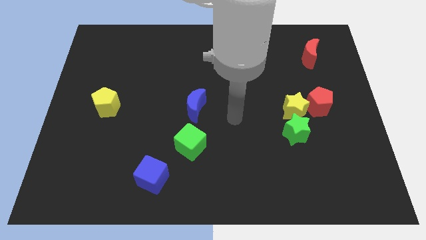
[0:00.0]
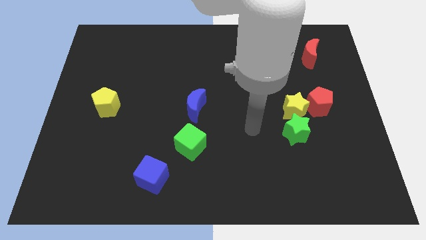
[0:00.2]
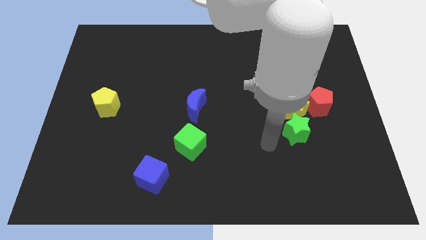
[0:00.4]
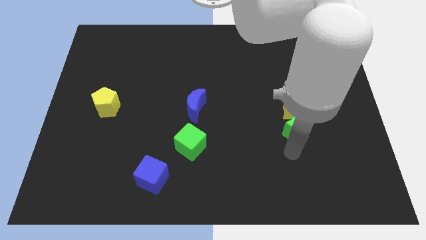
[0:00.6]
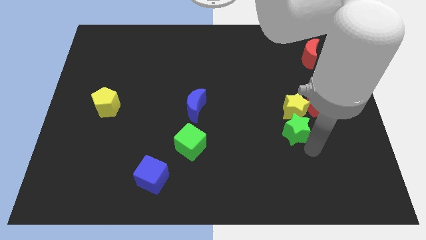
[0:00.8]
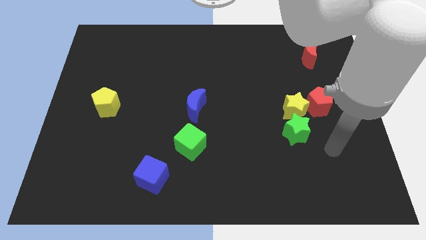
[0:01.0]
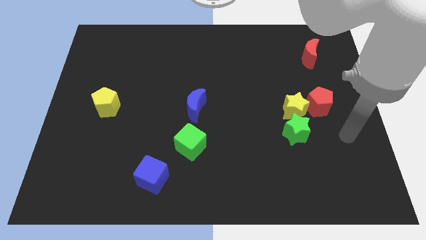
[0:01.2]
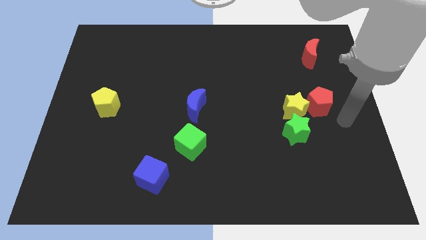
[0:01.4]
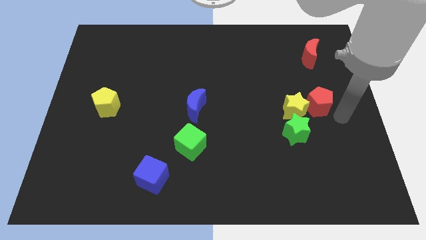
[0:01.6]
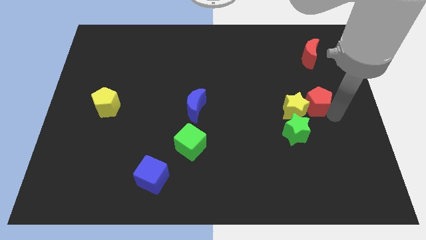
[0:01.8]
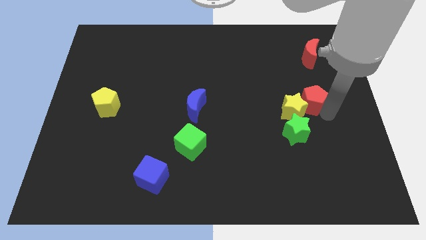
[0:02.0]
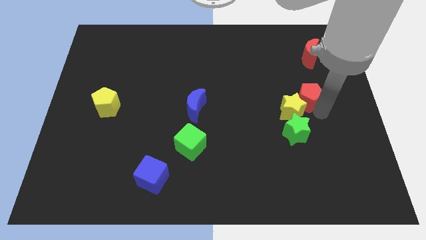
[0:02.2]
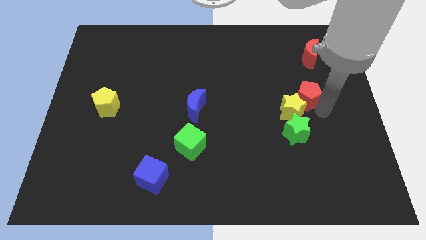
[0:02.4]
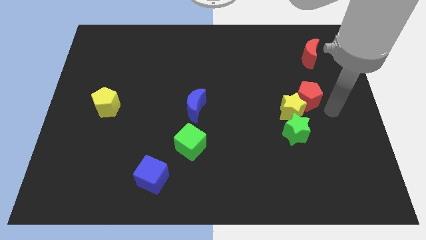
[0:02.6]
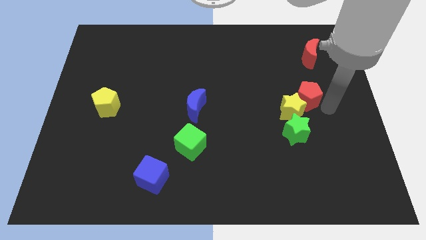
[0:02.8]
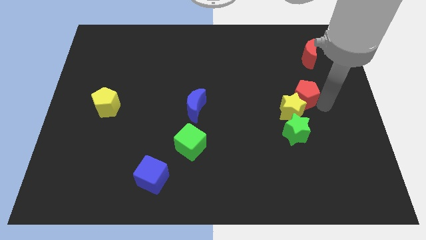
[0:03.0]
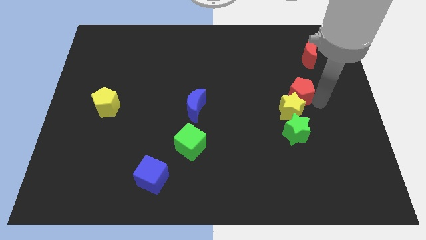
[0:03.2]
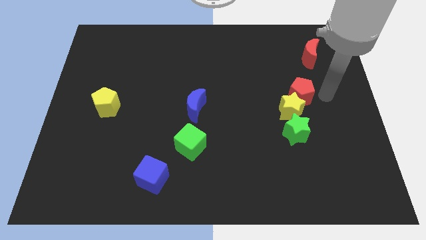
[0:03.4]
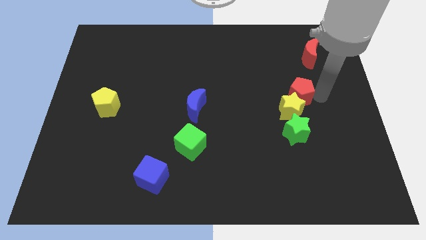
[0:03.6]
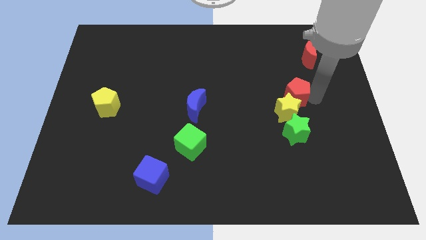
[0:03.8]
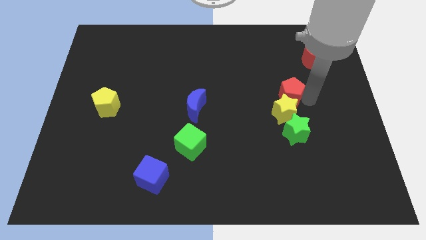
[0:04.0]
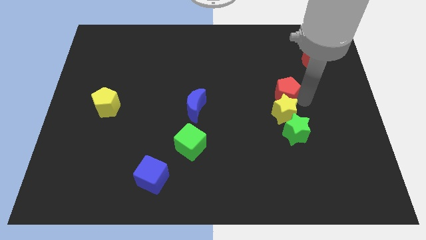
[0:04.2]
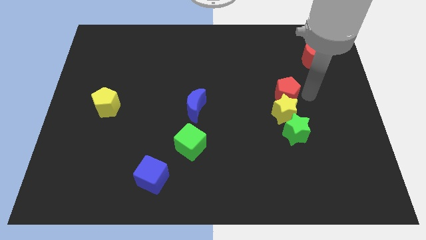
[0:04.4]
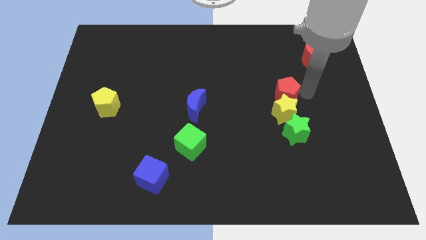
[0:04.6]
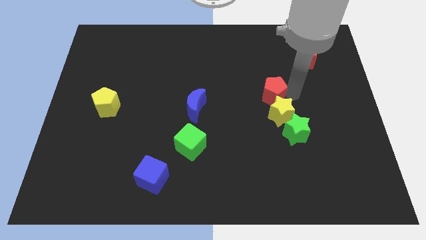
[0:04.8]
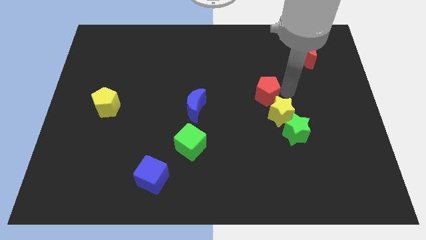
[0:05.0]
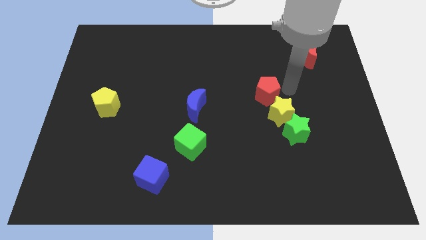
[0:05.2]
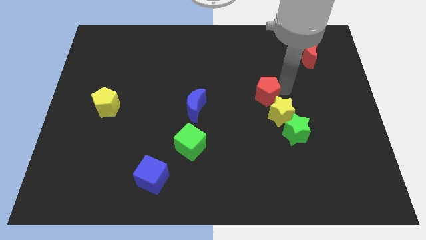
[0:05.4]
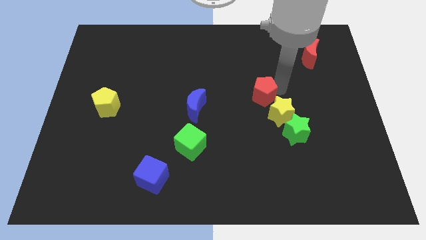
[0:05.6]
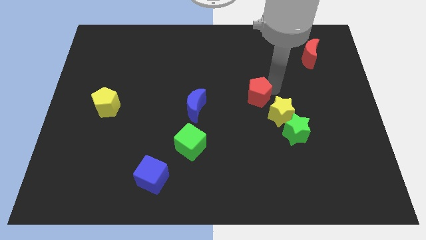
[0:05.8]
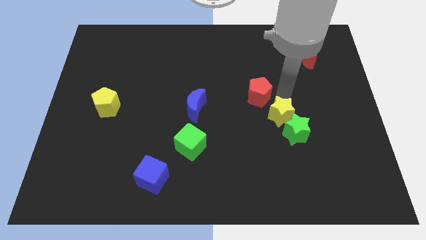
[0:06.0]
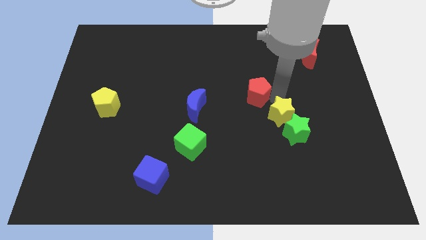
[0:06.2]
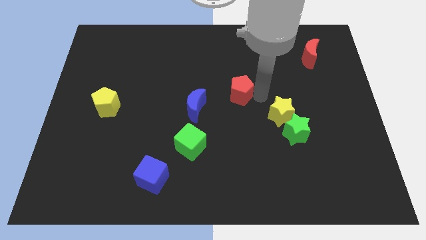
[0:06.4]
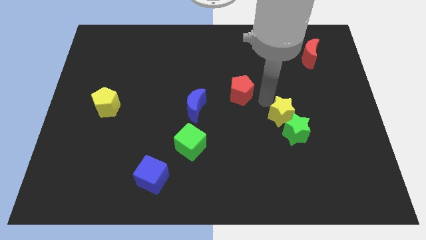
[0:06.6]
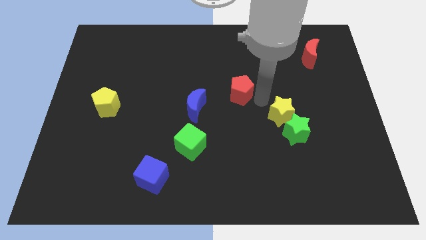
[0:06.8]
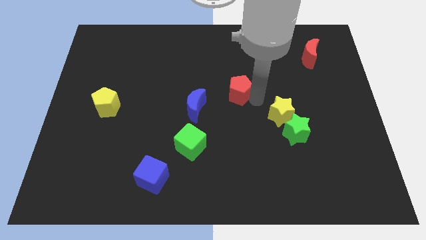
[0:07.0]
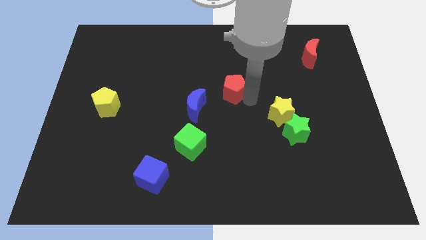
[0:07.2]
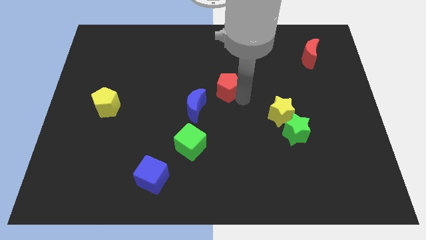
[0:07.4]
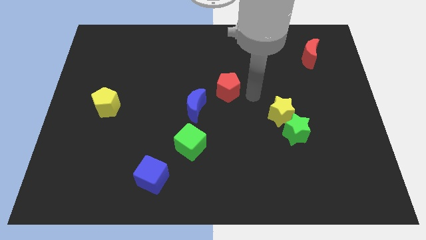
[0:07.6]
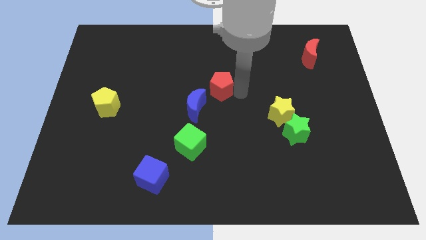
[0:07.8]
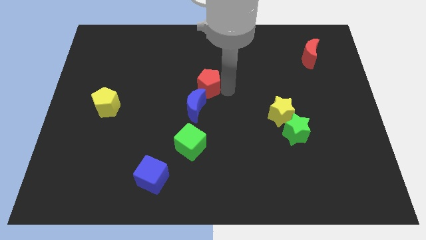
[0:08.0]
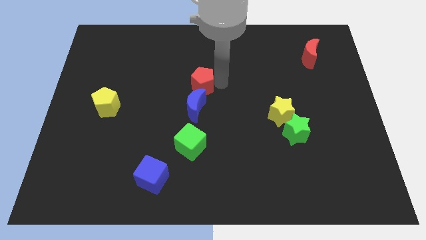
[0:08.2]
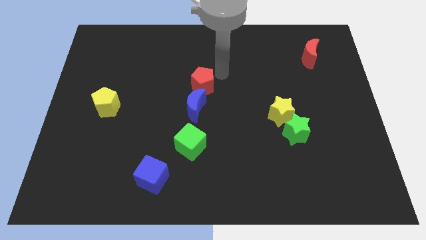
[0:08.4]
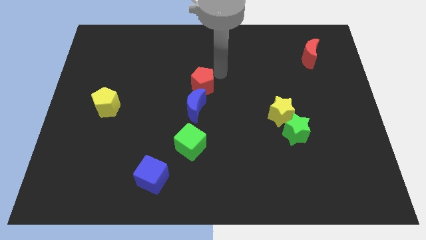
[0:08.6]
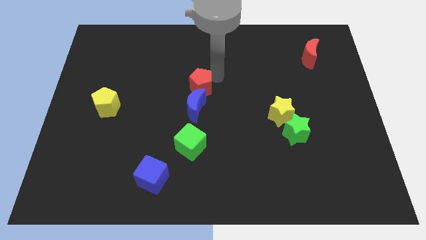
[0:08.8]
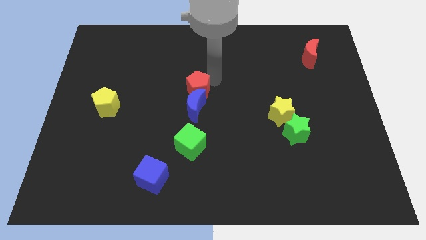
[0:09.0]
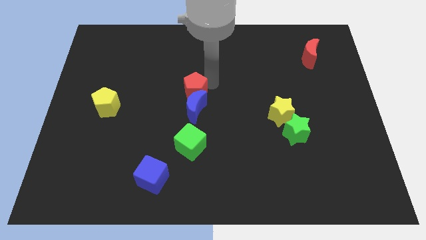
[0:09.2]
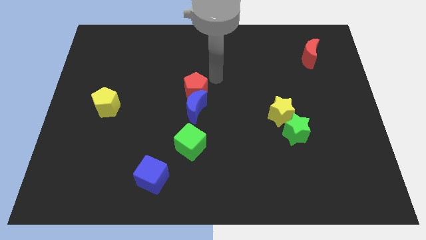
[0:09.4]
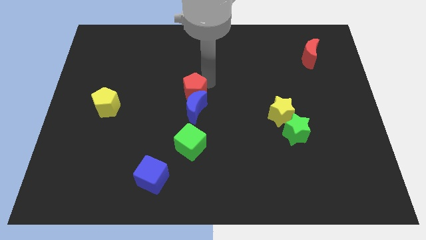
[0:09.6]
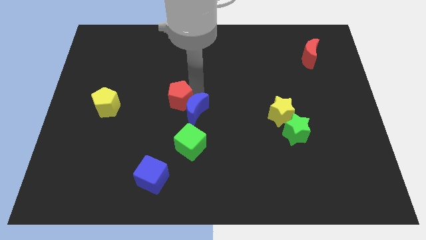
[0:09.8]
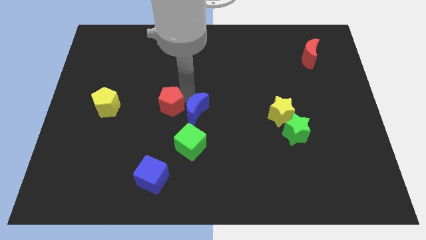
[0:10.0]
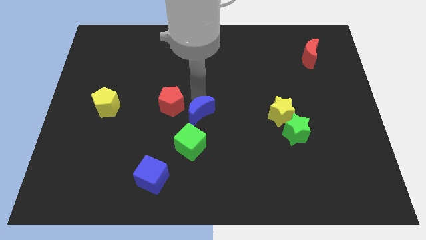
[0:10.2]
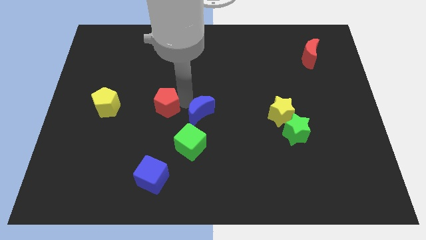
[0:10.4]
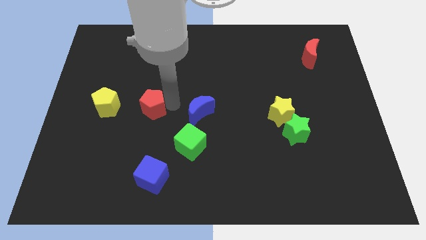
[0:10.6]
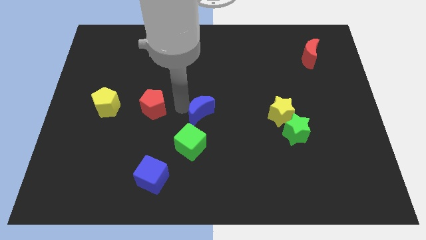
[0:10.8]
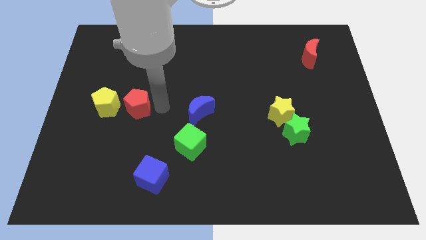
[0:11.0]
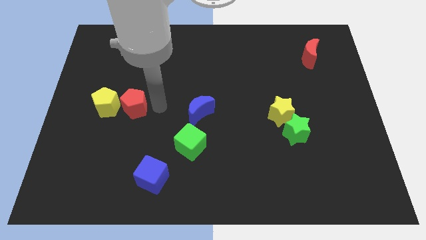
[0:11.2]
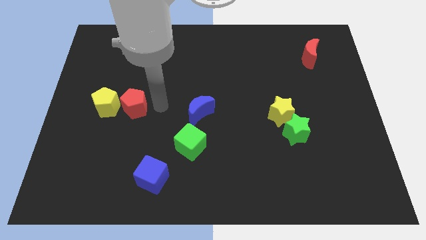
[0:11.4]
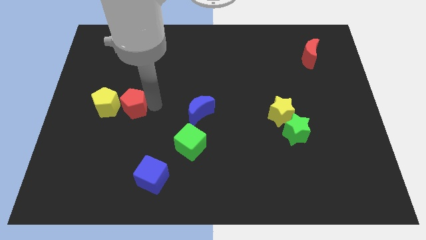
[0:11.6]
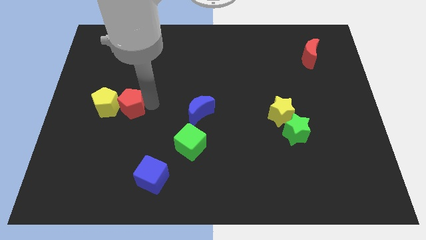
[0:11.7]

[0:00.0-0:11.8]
push the red pentagon next to the yellow pentagon

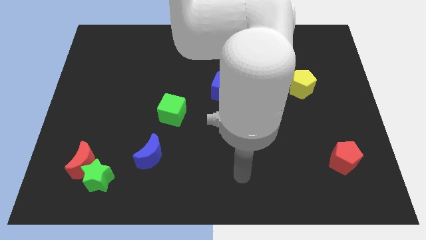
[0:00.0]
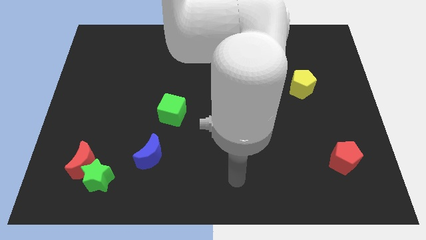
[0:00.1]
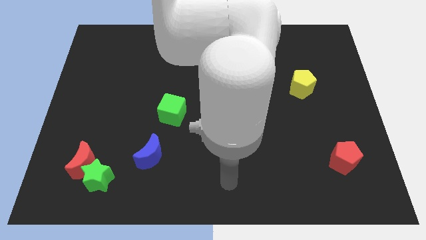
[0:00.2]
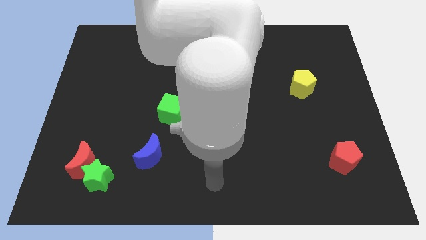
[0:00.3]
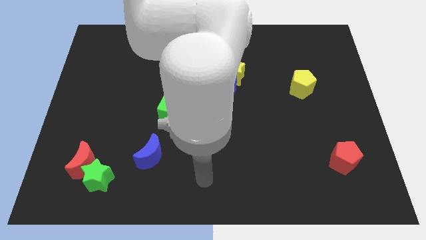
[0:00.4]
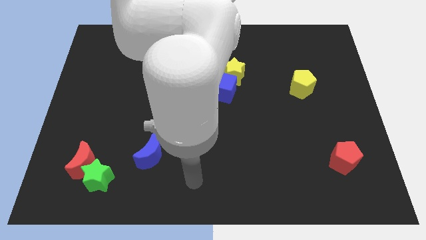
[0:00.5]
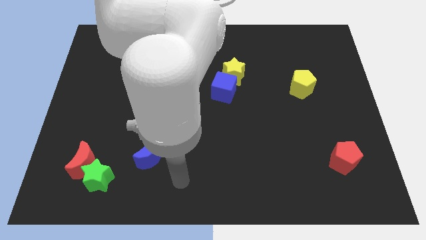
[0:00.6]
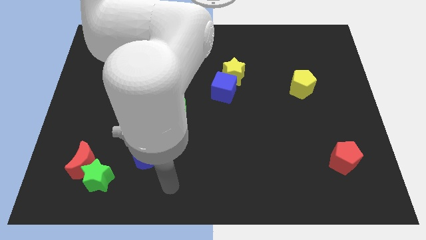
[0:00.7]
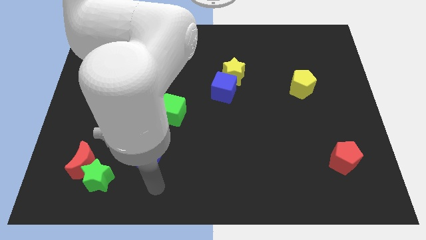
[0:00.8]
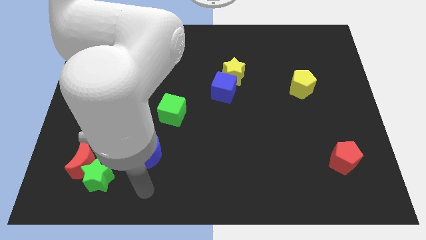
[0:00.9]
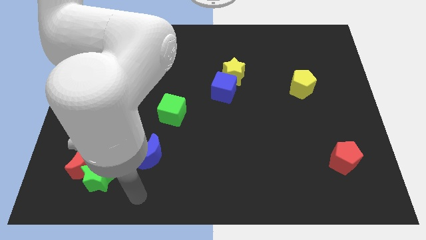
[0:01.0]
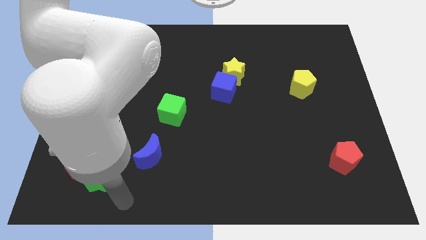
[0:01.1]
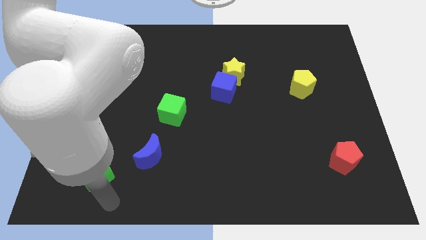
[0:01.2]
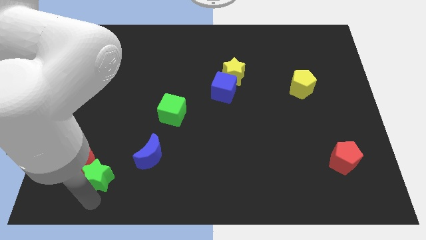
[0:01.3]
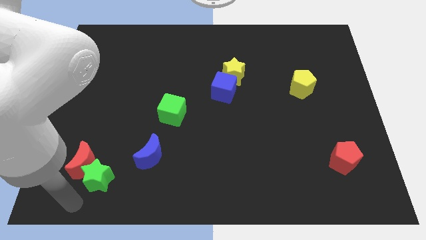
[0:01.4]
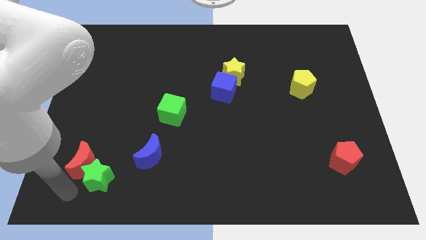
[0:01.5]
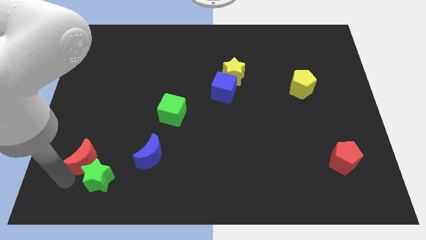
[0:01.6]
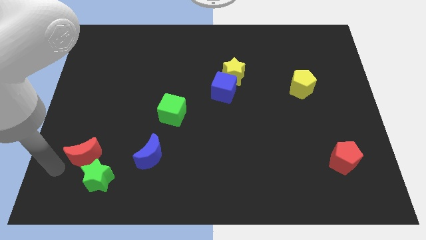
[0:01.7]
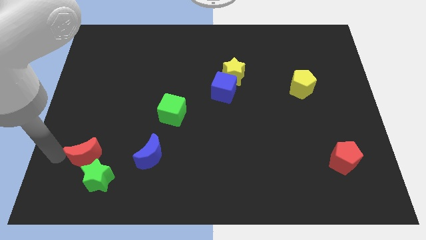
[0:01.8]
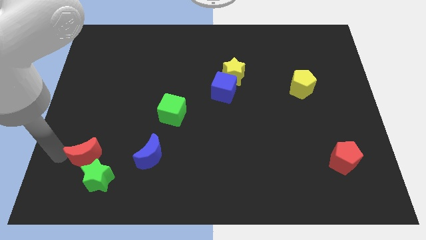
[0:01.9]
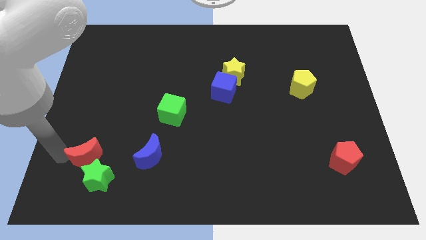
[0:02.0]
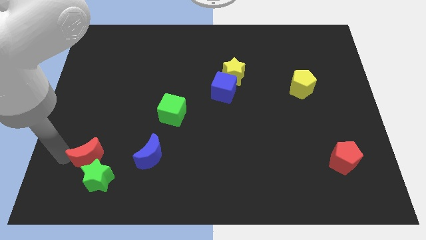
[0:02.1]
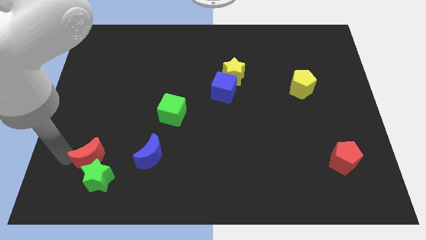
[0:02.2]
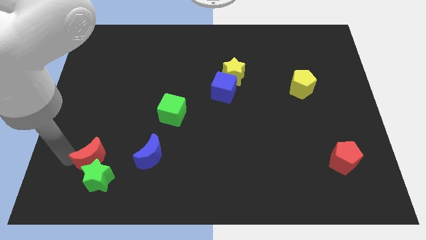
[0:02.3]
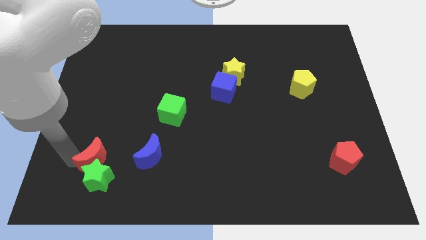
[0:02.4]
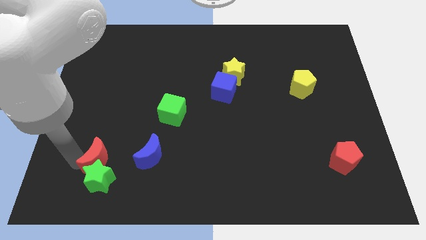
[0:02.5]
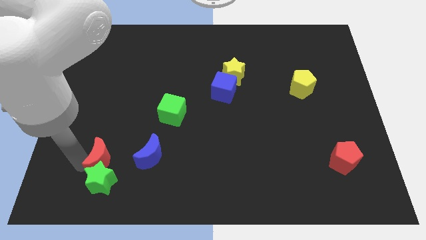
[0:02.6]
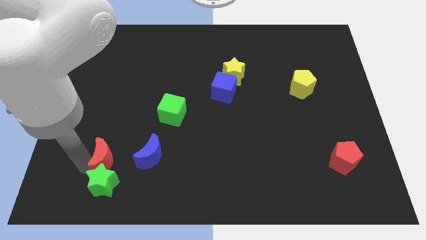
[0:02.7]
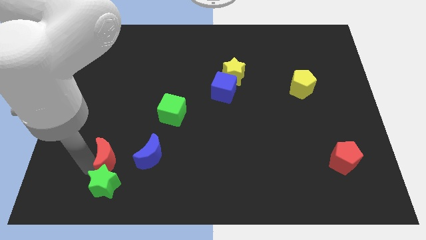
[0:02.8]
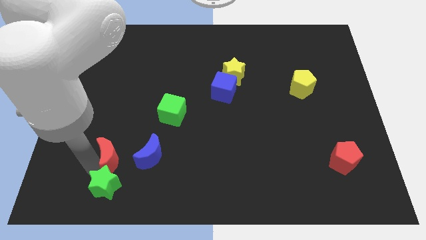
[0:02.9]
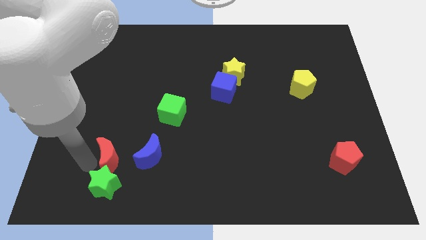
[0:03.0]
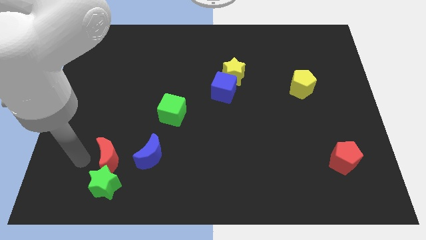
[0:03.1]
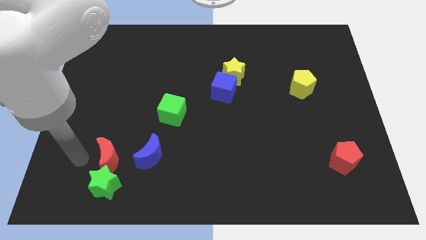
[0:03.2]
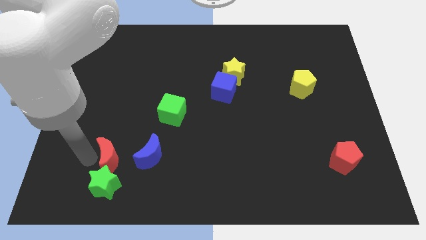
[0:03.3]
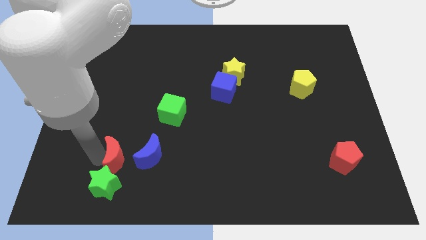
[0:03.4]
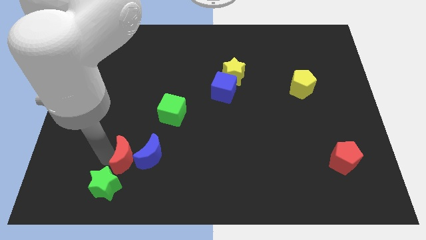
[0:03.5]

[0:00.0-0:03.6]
put the red moon next to the blue moon
